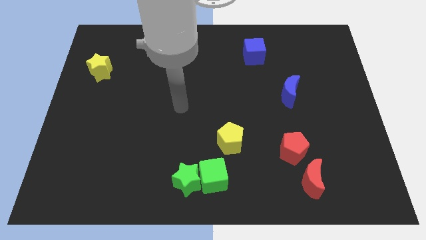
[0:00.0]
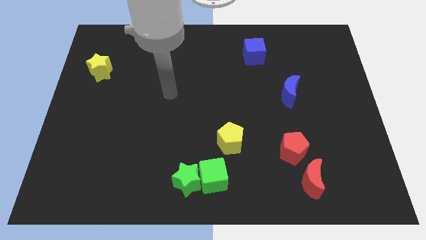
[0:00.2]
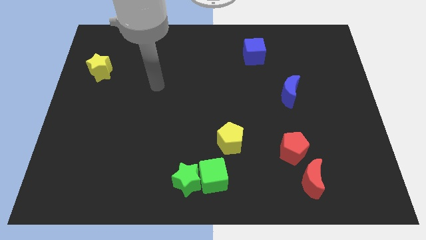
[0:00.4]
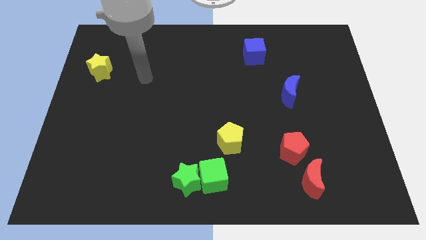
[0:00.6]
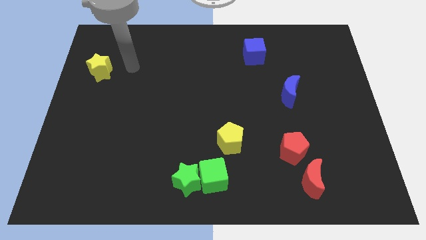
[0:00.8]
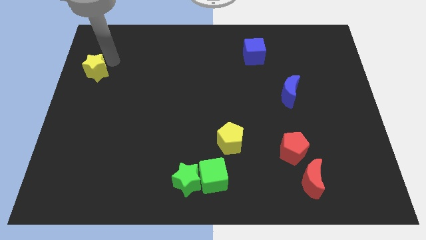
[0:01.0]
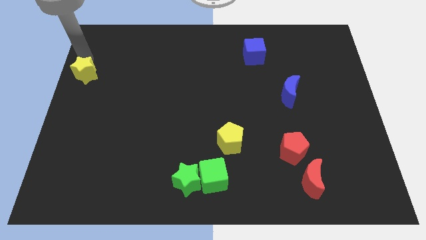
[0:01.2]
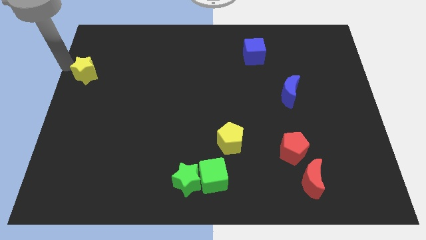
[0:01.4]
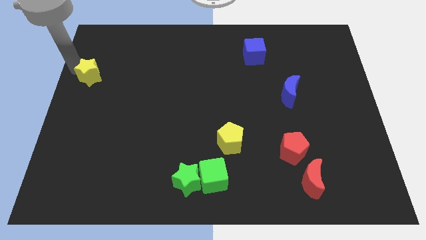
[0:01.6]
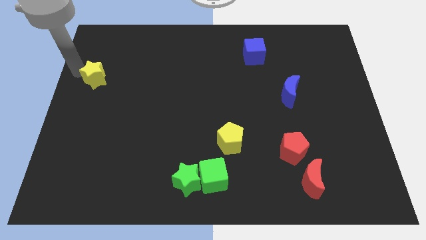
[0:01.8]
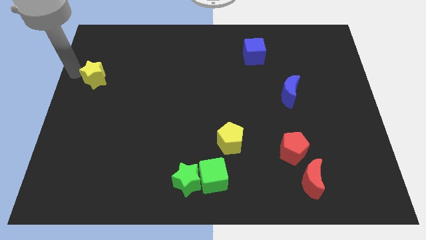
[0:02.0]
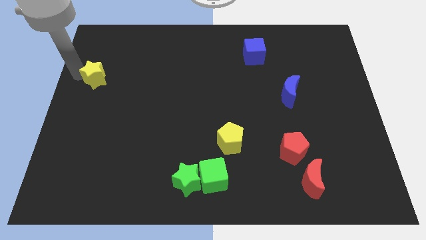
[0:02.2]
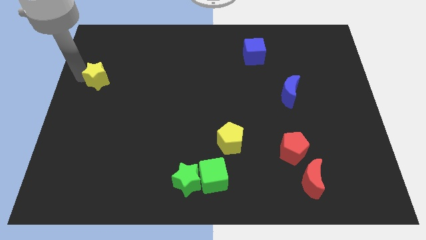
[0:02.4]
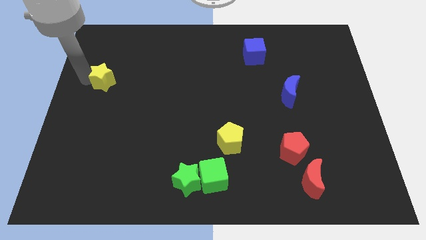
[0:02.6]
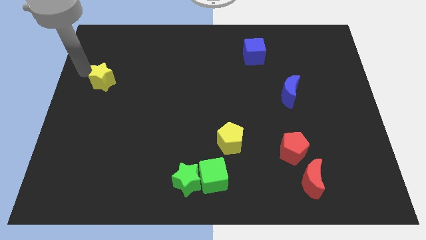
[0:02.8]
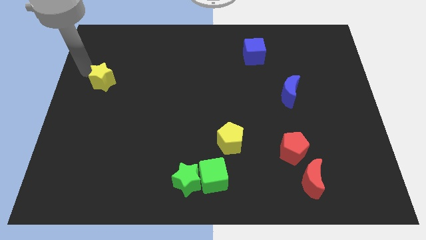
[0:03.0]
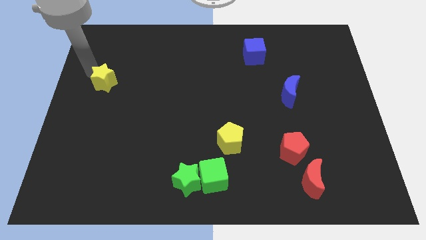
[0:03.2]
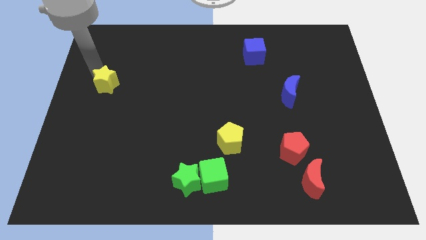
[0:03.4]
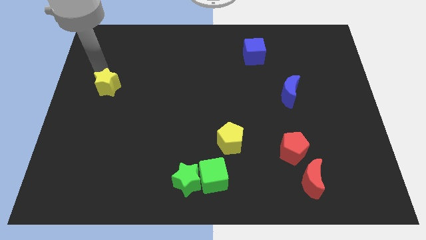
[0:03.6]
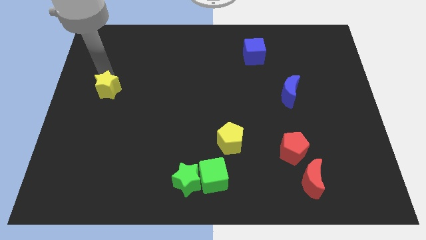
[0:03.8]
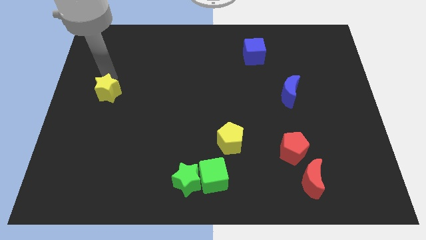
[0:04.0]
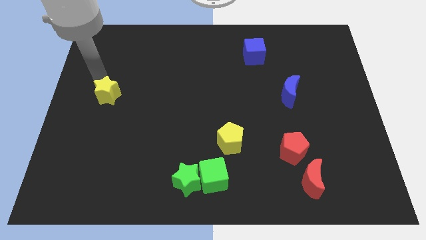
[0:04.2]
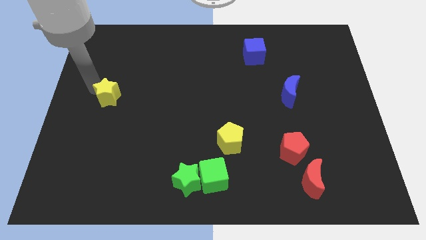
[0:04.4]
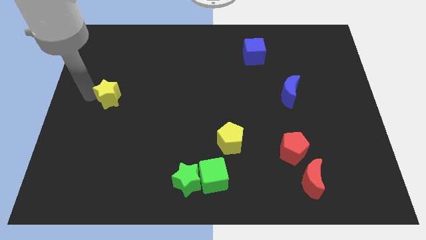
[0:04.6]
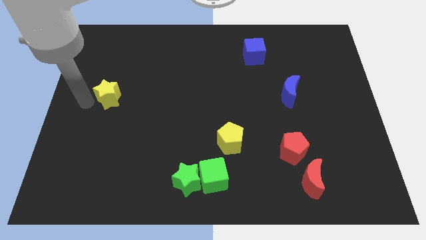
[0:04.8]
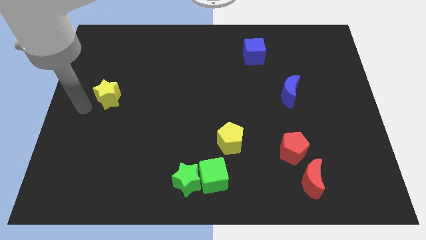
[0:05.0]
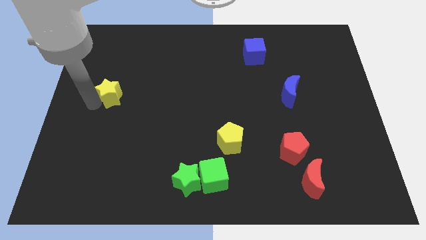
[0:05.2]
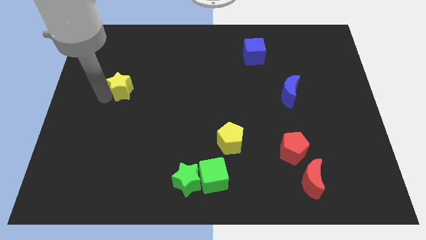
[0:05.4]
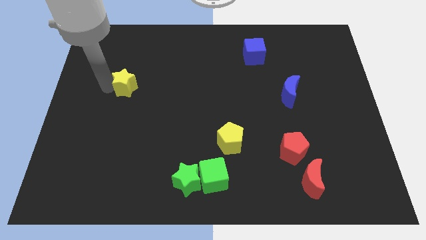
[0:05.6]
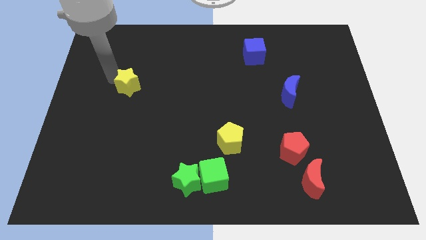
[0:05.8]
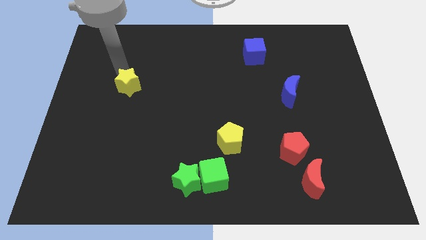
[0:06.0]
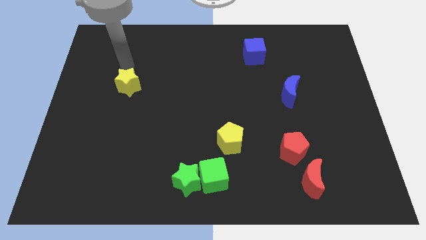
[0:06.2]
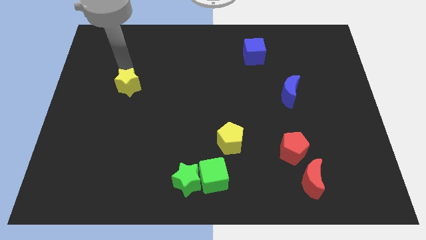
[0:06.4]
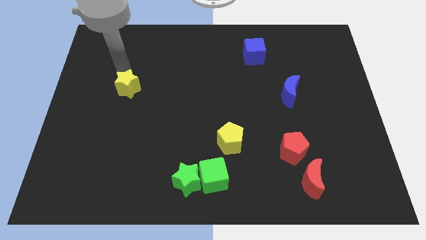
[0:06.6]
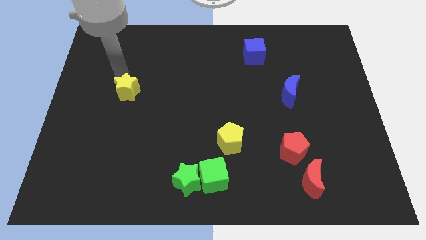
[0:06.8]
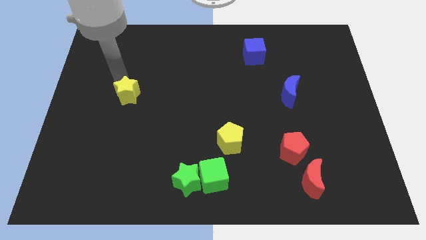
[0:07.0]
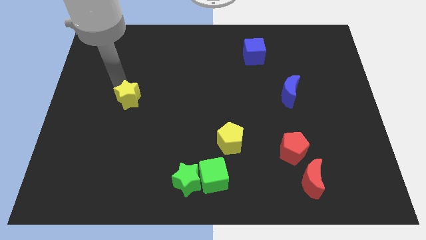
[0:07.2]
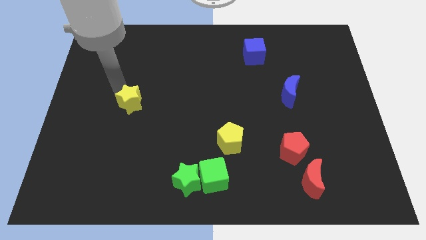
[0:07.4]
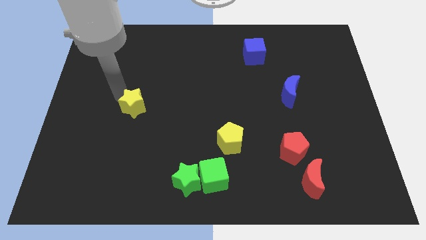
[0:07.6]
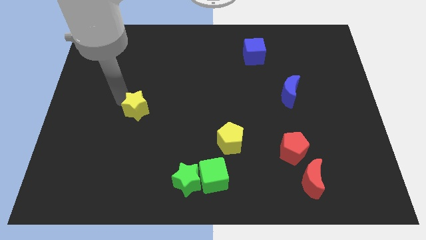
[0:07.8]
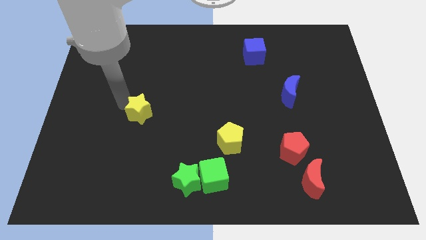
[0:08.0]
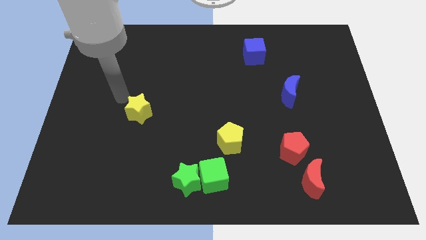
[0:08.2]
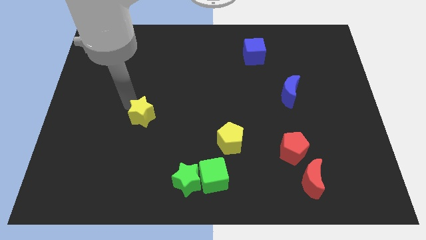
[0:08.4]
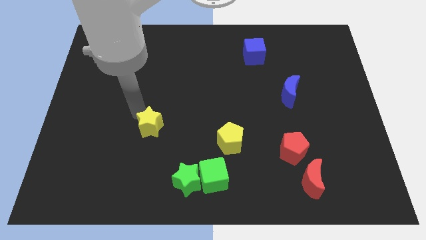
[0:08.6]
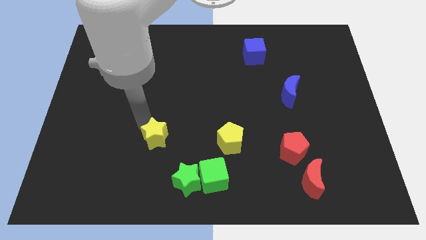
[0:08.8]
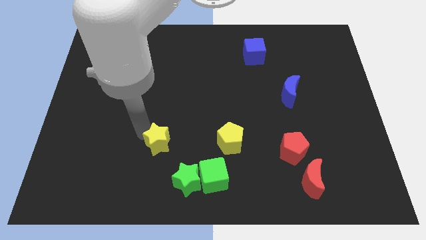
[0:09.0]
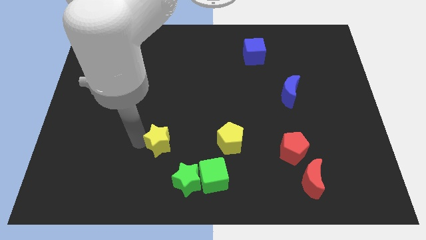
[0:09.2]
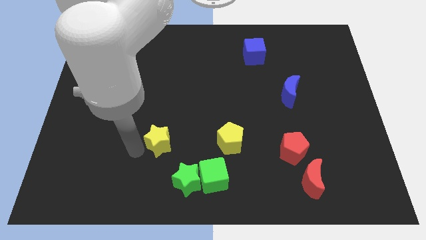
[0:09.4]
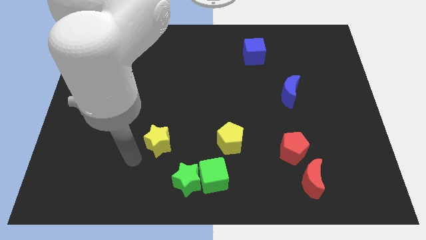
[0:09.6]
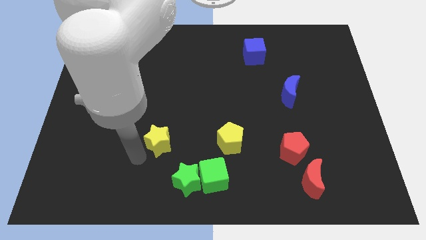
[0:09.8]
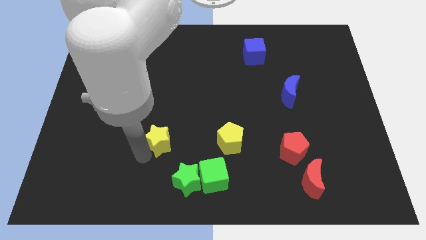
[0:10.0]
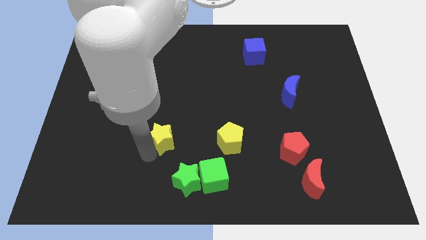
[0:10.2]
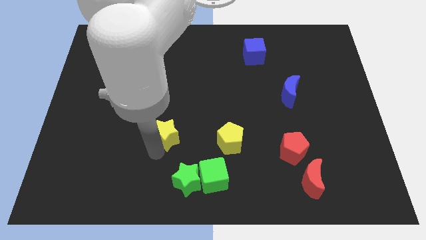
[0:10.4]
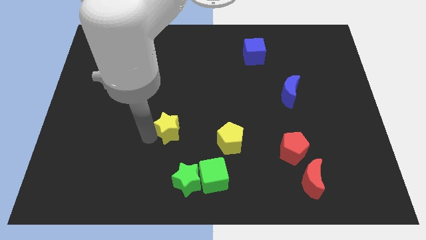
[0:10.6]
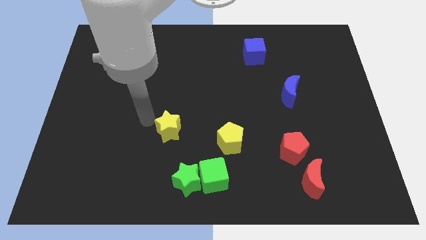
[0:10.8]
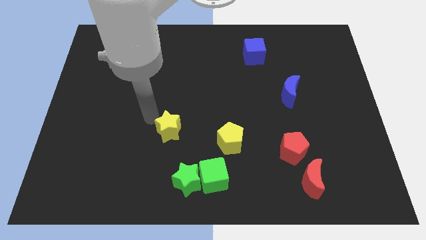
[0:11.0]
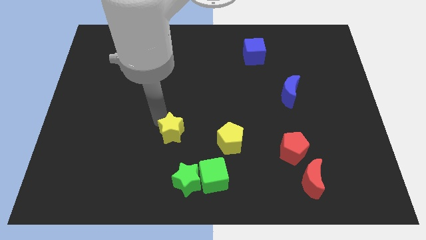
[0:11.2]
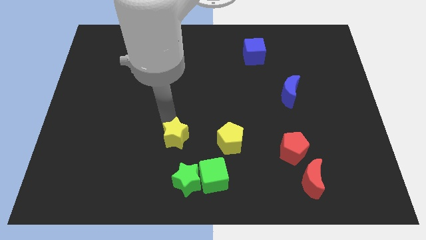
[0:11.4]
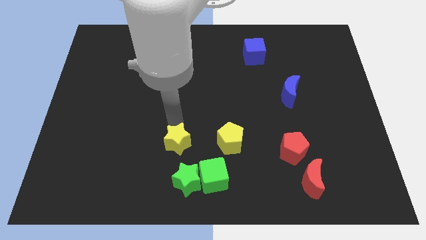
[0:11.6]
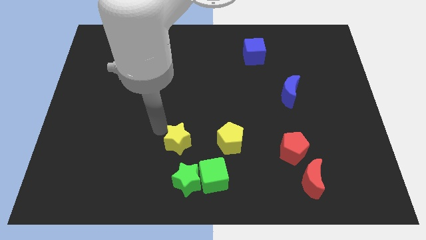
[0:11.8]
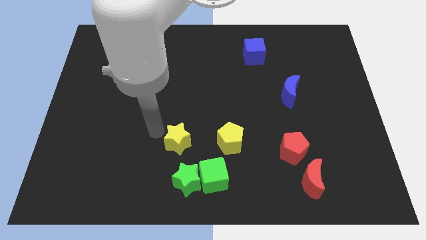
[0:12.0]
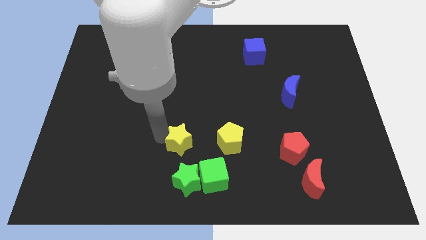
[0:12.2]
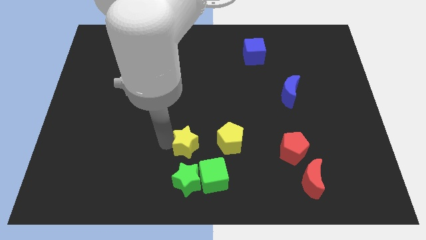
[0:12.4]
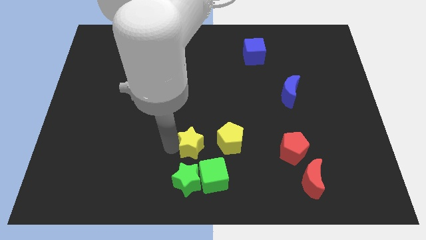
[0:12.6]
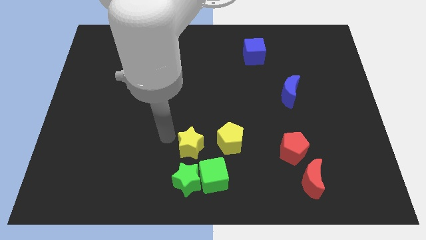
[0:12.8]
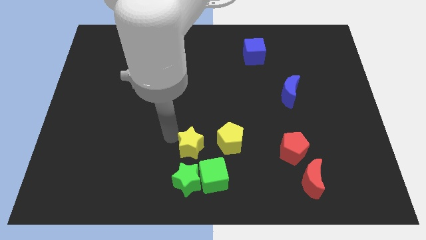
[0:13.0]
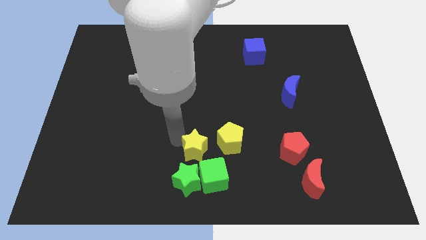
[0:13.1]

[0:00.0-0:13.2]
put the yellow star to the top right side of the green star

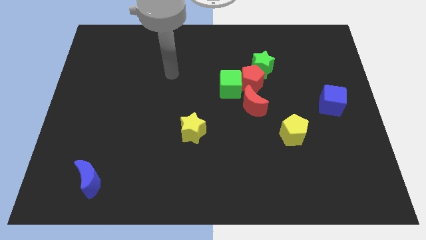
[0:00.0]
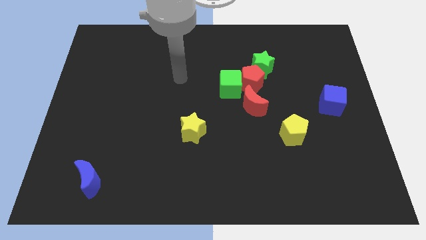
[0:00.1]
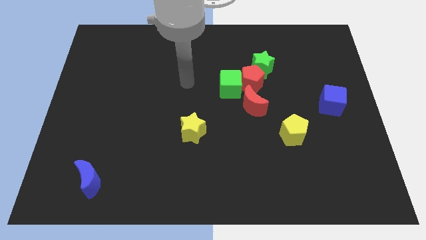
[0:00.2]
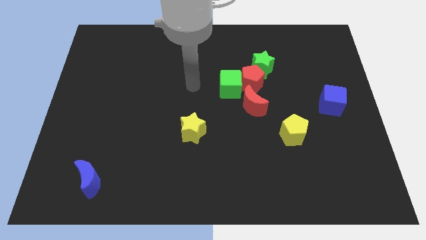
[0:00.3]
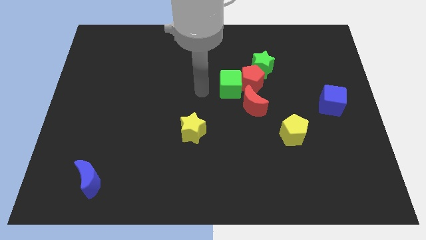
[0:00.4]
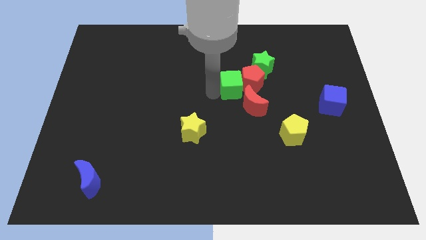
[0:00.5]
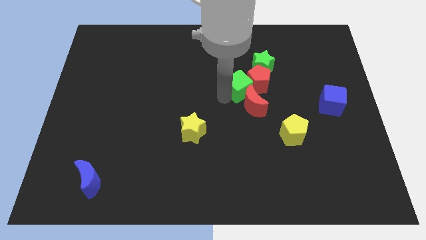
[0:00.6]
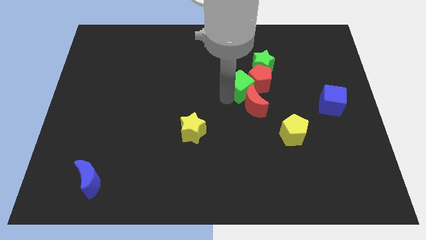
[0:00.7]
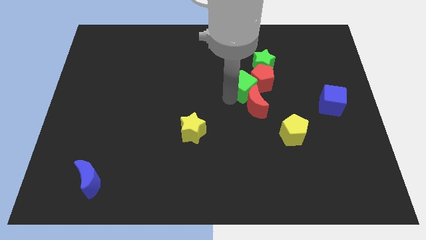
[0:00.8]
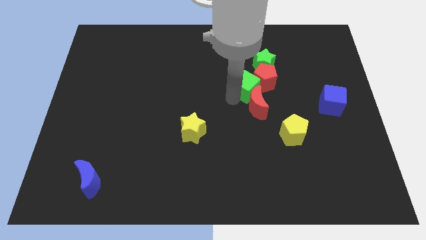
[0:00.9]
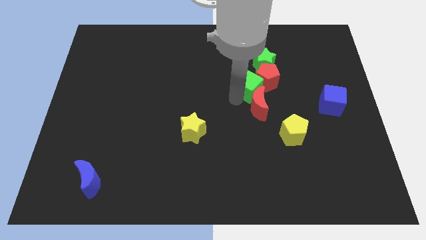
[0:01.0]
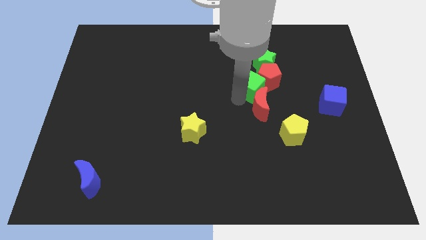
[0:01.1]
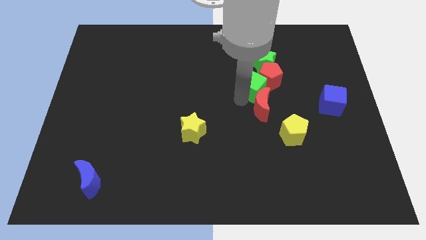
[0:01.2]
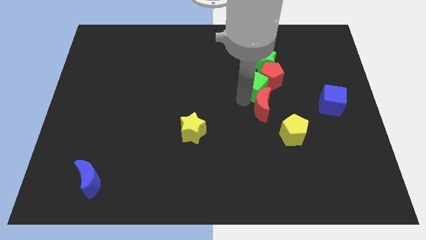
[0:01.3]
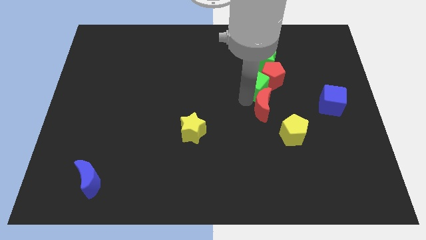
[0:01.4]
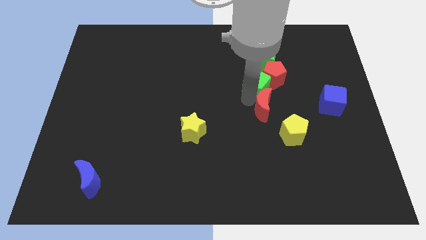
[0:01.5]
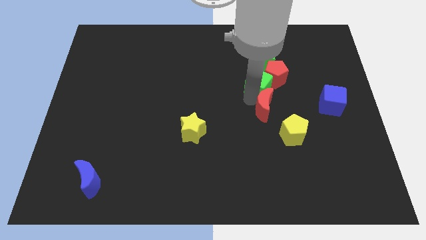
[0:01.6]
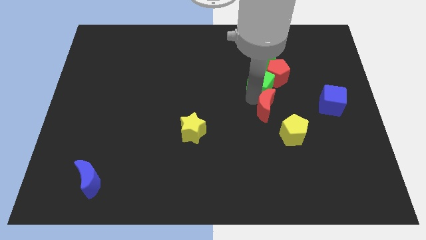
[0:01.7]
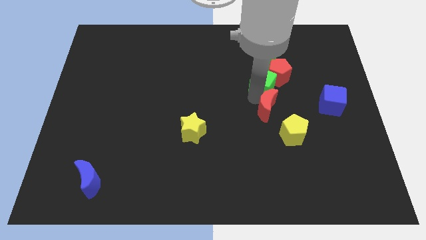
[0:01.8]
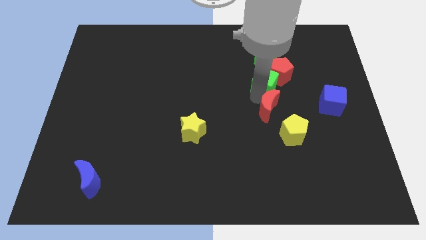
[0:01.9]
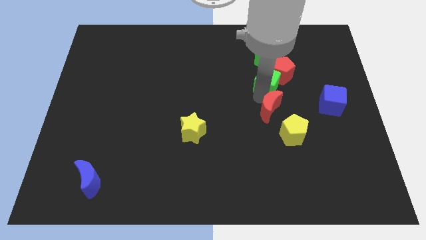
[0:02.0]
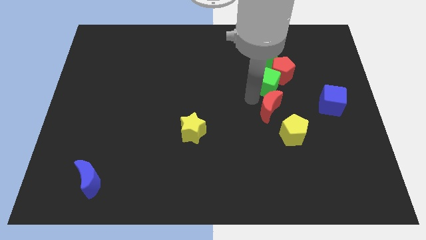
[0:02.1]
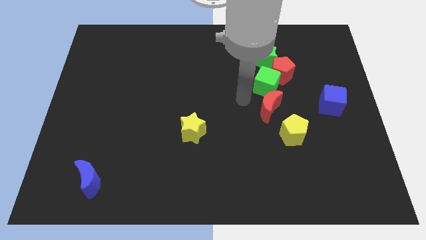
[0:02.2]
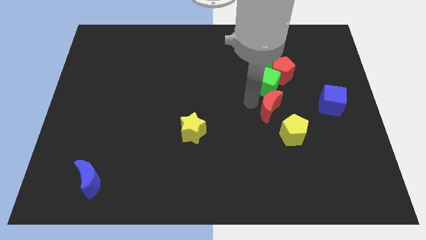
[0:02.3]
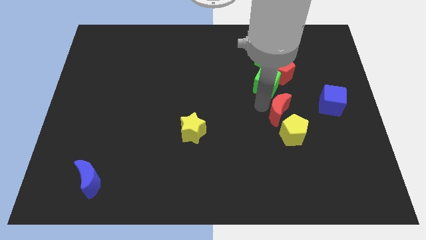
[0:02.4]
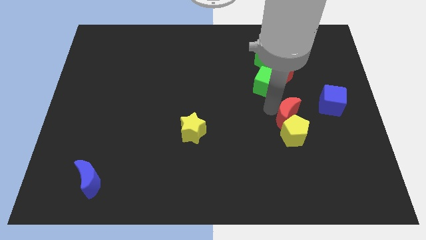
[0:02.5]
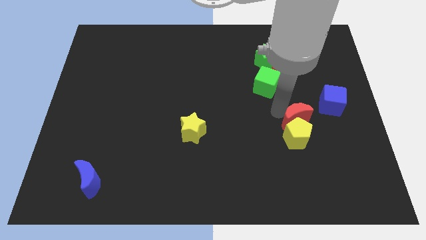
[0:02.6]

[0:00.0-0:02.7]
slide the red moon diagonally down and to the left of the blue cube
